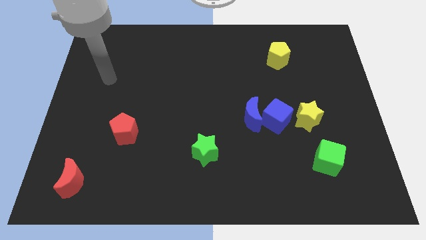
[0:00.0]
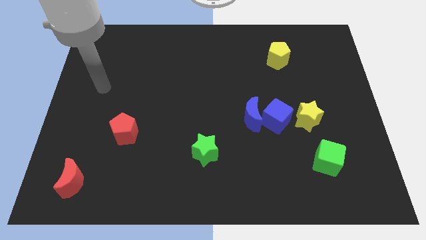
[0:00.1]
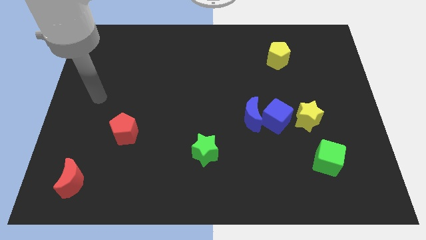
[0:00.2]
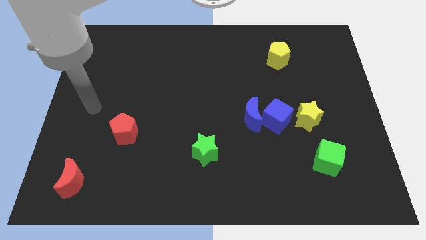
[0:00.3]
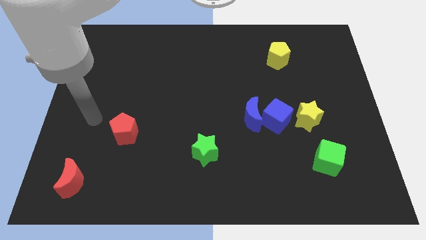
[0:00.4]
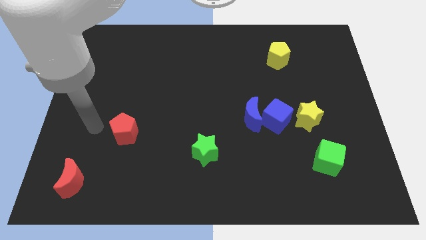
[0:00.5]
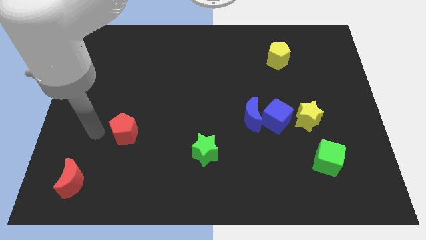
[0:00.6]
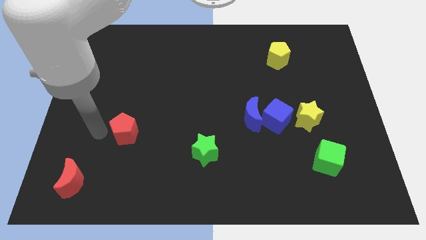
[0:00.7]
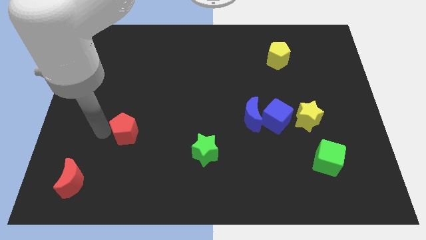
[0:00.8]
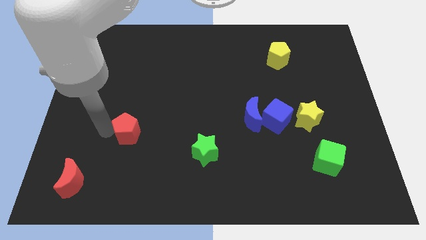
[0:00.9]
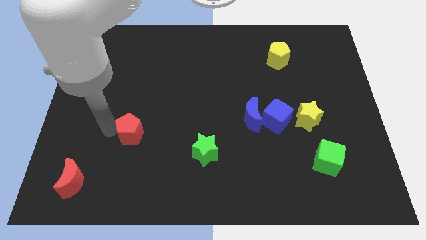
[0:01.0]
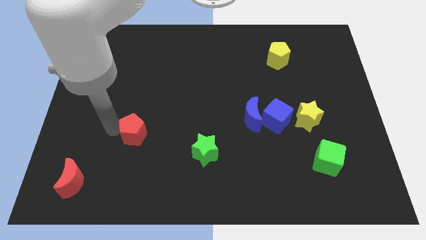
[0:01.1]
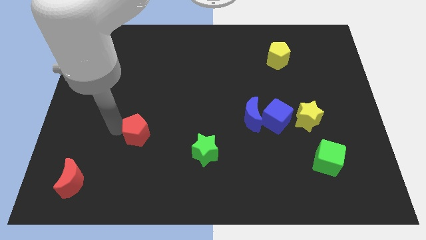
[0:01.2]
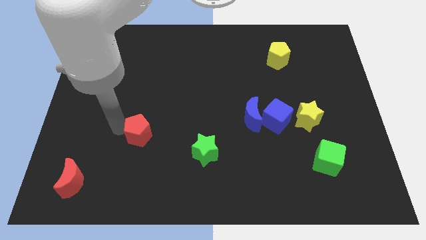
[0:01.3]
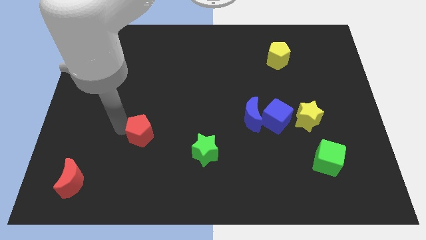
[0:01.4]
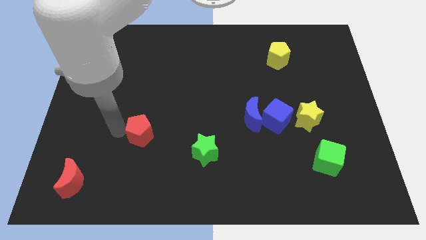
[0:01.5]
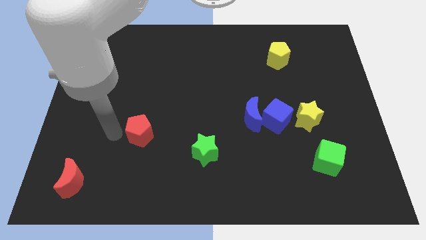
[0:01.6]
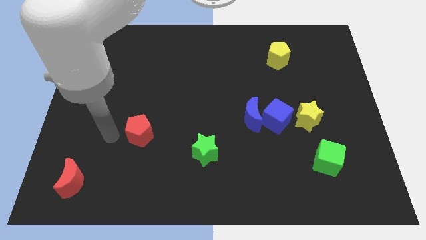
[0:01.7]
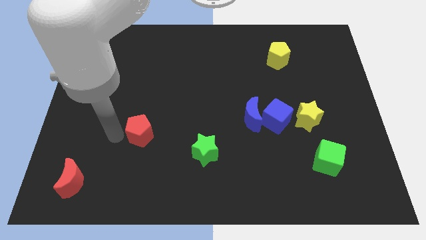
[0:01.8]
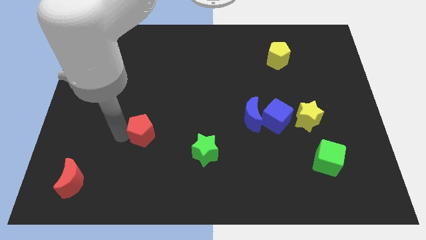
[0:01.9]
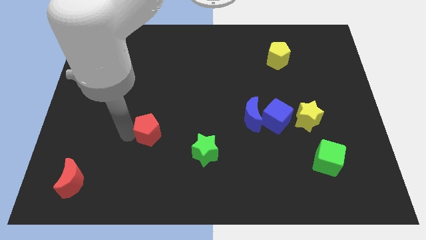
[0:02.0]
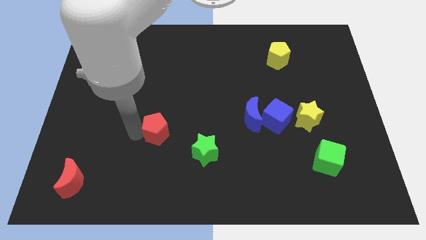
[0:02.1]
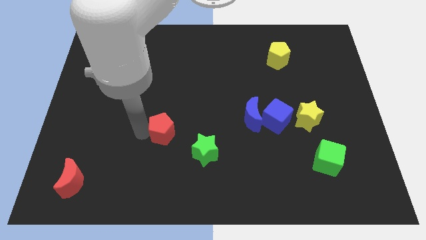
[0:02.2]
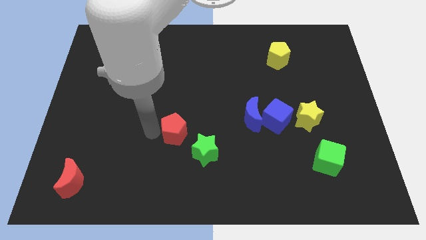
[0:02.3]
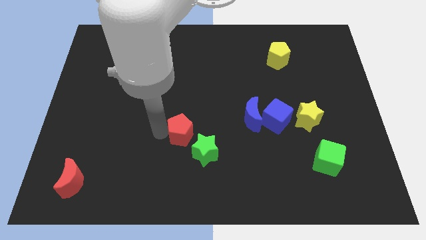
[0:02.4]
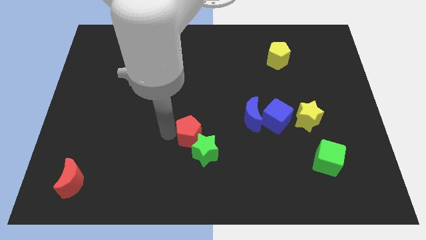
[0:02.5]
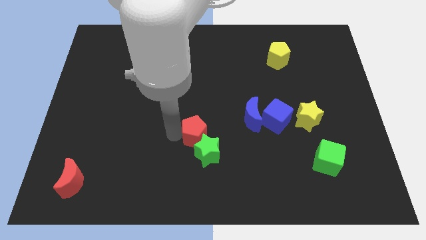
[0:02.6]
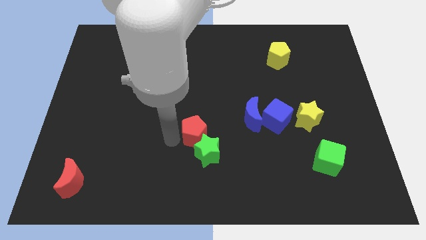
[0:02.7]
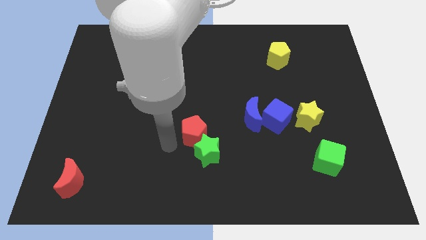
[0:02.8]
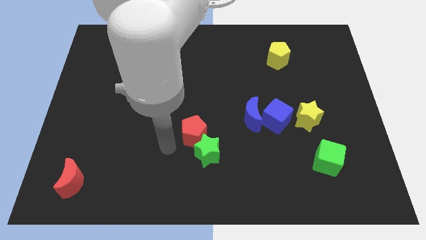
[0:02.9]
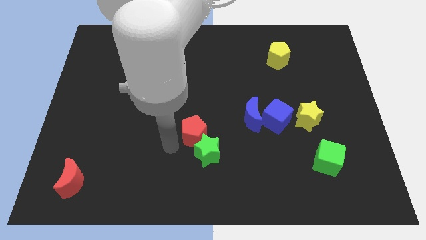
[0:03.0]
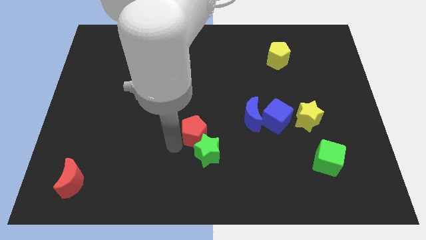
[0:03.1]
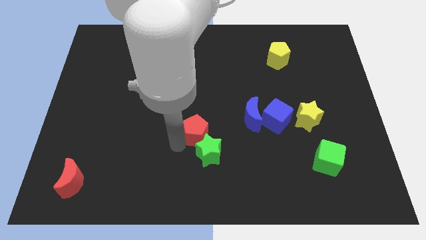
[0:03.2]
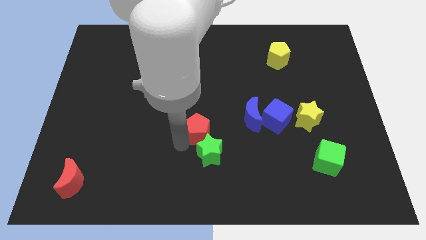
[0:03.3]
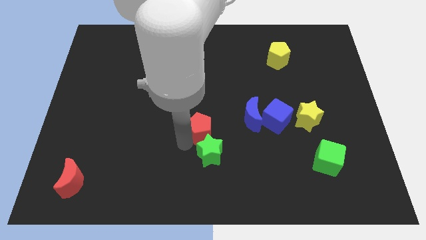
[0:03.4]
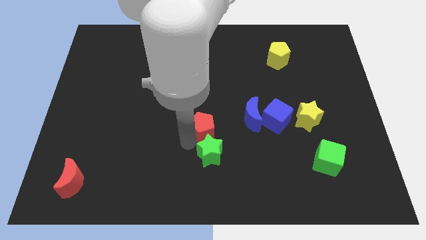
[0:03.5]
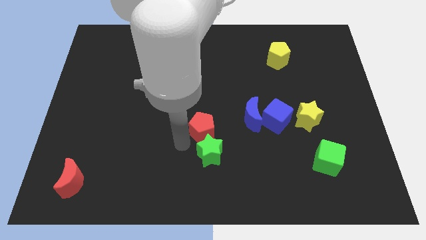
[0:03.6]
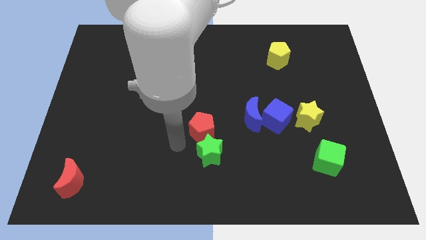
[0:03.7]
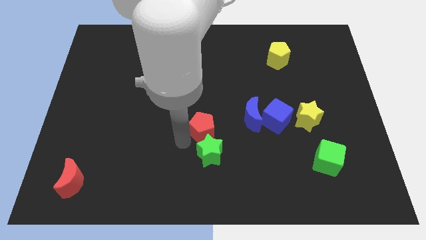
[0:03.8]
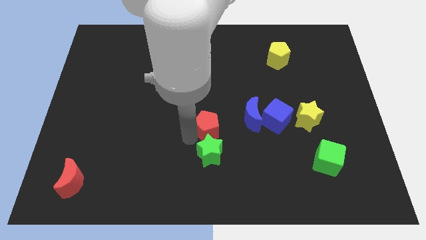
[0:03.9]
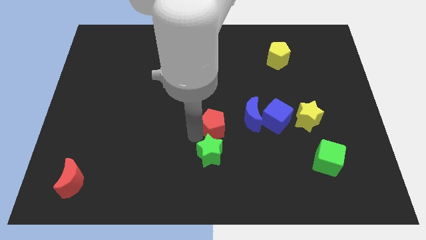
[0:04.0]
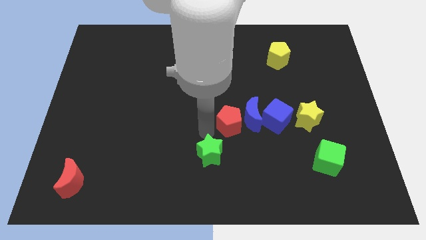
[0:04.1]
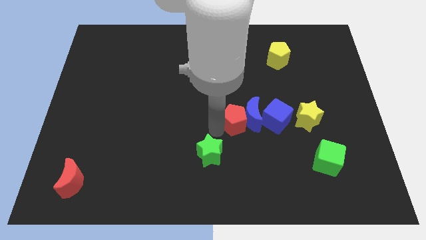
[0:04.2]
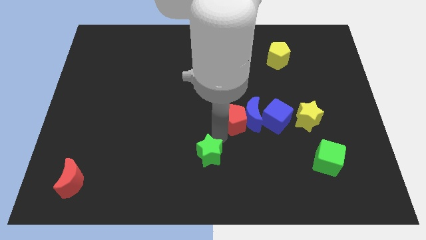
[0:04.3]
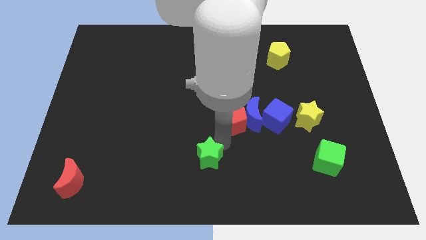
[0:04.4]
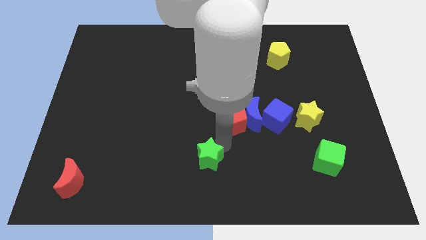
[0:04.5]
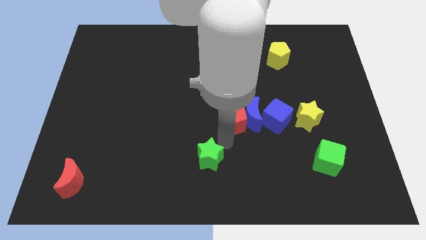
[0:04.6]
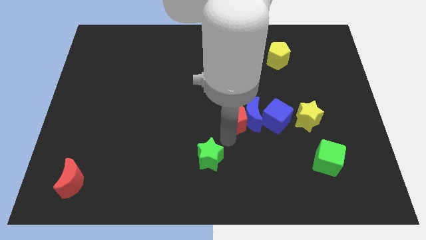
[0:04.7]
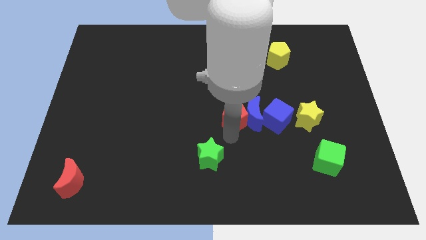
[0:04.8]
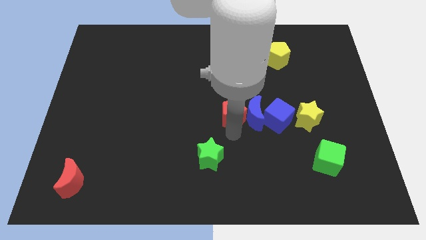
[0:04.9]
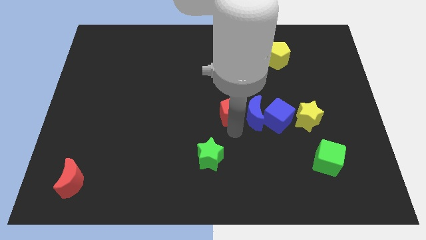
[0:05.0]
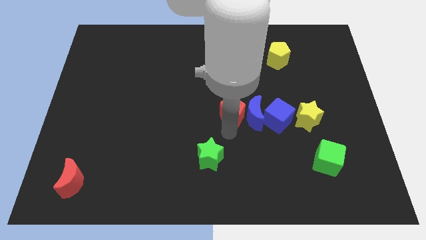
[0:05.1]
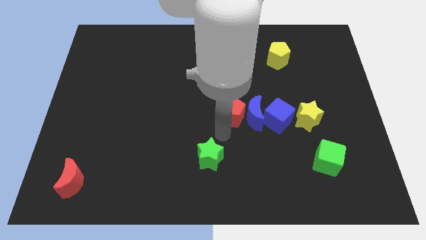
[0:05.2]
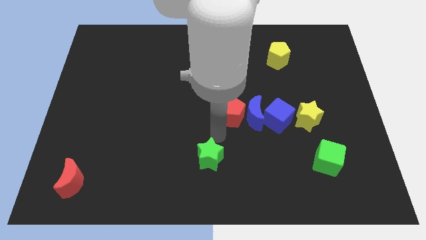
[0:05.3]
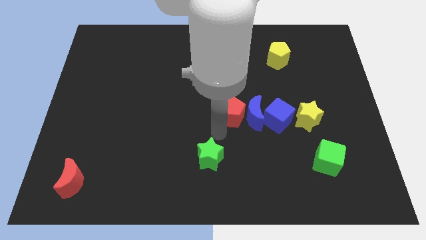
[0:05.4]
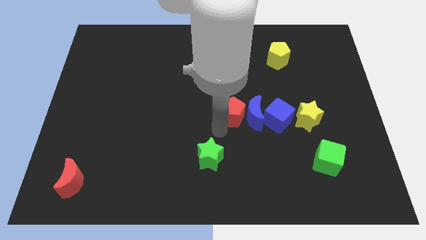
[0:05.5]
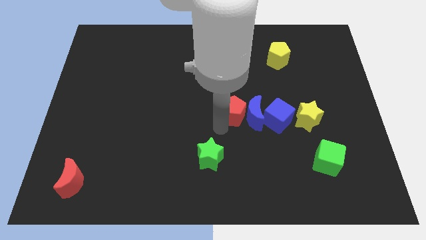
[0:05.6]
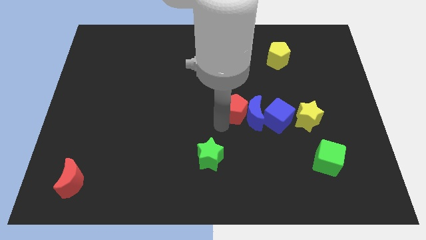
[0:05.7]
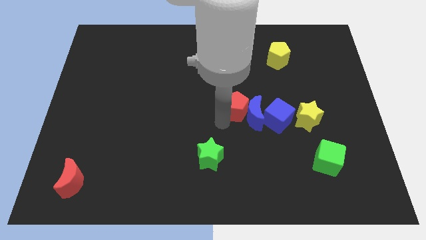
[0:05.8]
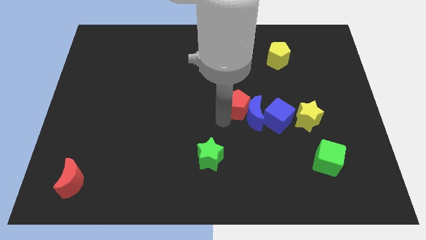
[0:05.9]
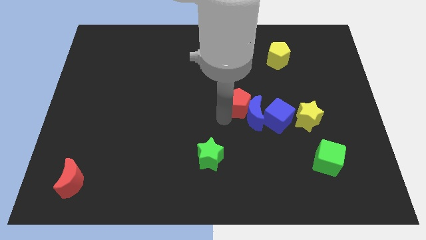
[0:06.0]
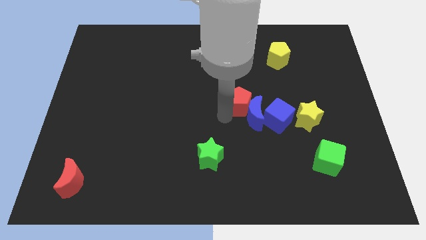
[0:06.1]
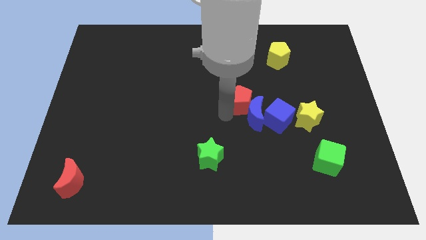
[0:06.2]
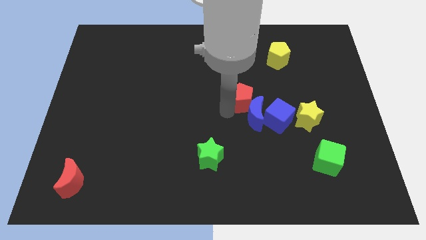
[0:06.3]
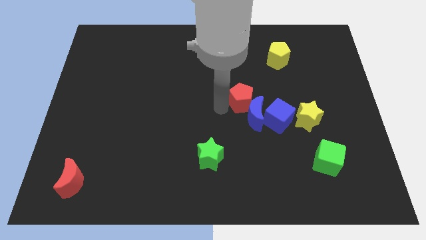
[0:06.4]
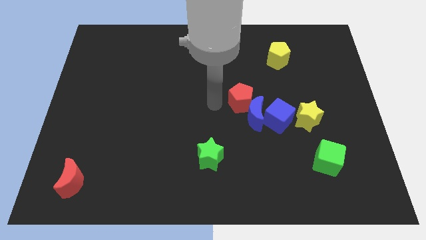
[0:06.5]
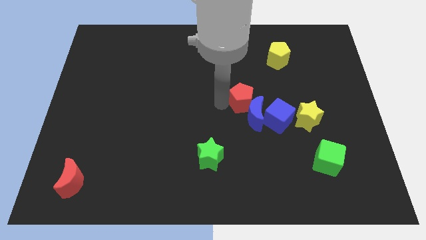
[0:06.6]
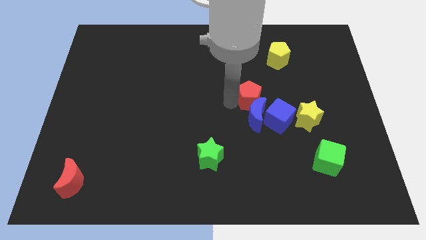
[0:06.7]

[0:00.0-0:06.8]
slide the red pentagon to the top right side of the blue moon

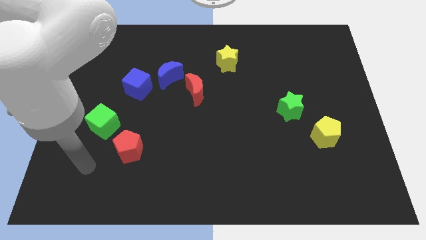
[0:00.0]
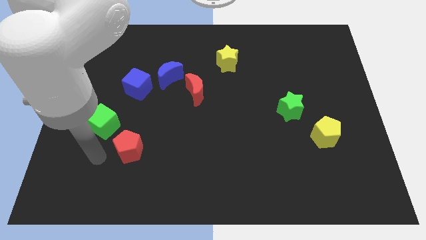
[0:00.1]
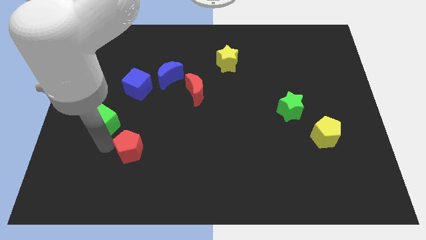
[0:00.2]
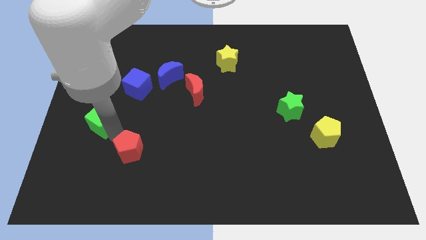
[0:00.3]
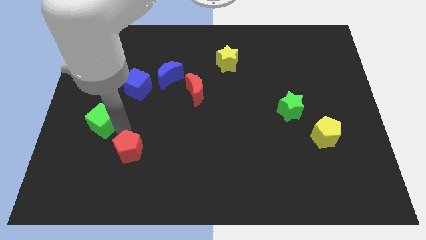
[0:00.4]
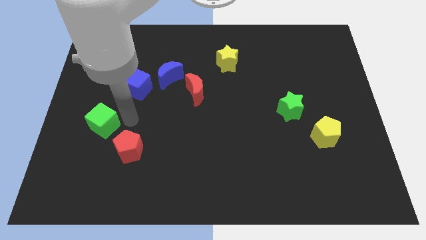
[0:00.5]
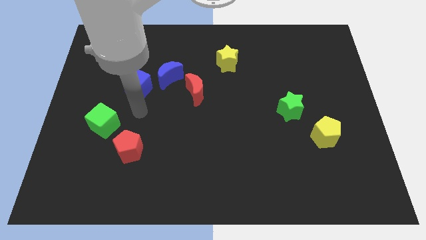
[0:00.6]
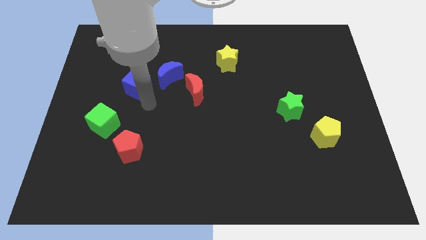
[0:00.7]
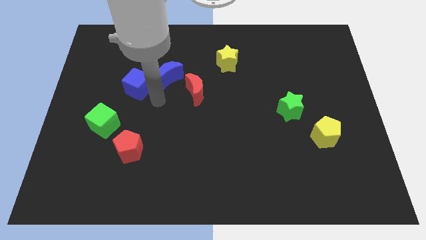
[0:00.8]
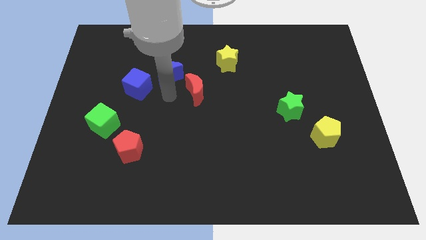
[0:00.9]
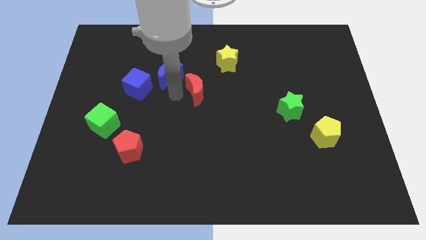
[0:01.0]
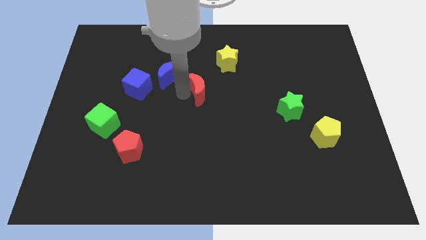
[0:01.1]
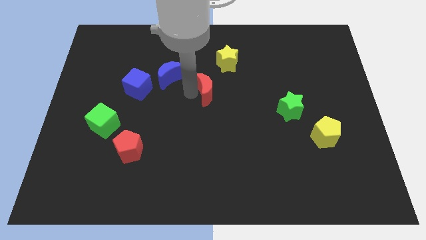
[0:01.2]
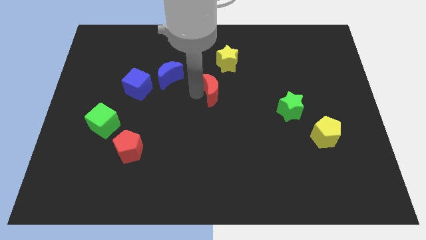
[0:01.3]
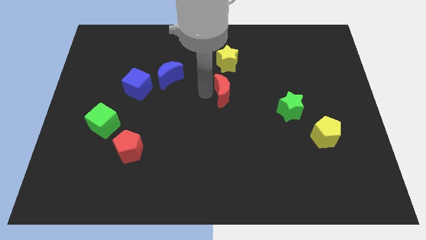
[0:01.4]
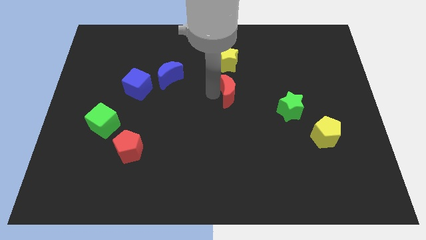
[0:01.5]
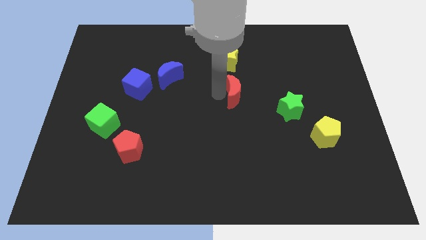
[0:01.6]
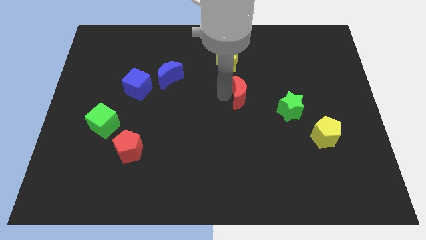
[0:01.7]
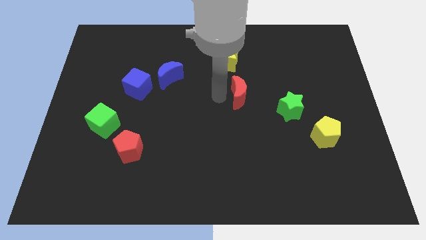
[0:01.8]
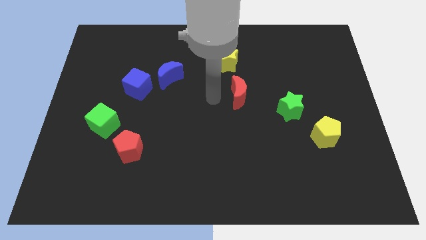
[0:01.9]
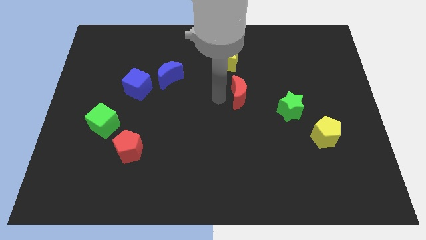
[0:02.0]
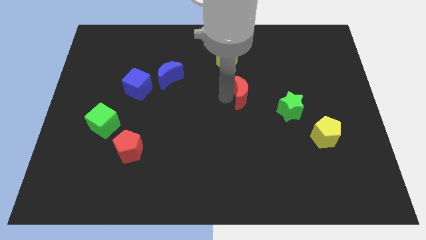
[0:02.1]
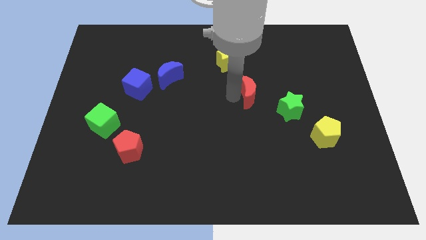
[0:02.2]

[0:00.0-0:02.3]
move the red moon diagonally up and to the left of the green star
